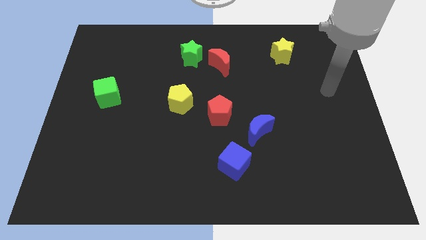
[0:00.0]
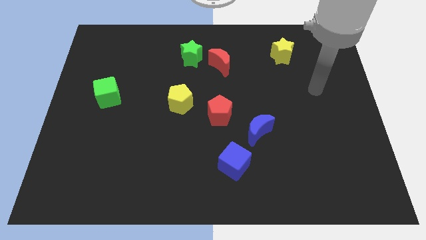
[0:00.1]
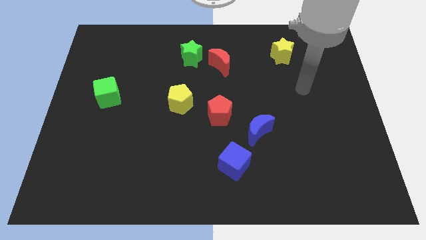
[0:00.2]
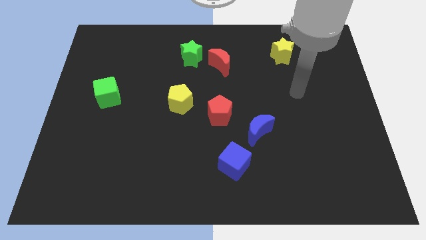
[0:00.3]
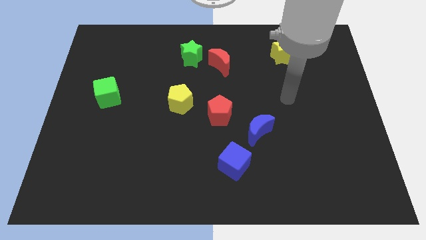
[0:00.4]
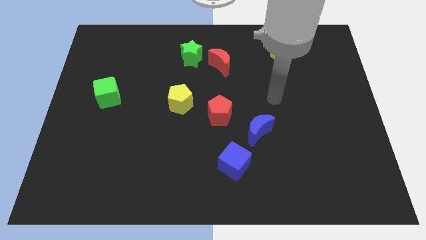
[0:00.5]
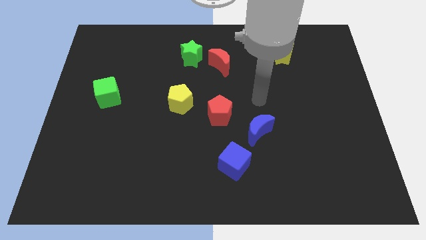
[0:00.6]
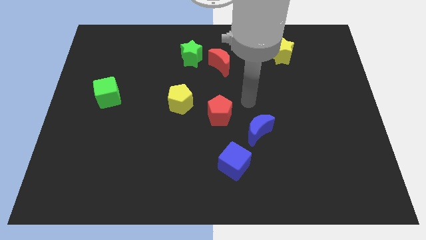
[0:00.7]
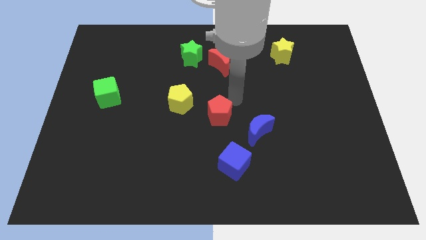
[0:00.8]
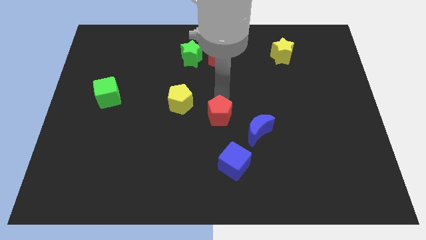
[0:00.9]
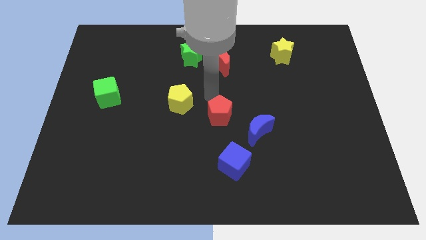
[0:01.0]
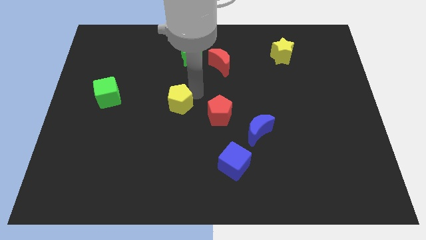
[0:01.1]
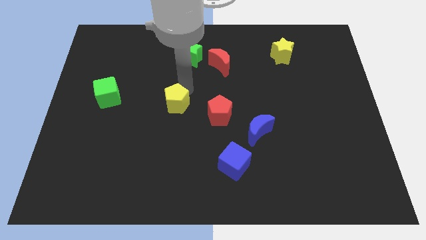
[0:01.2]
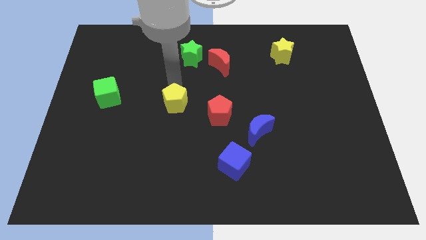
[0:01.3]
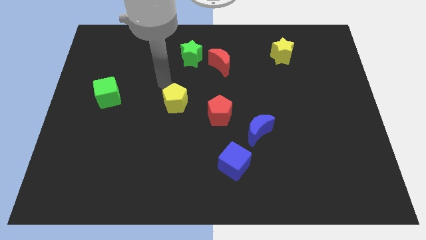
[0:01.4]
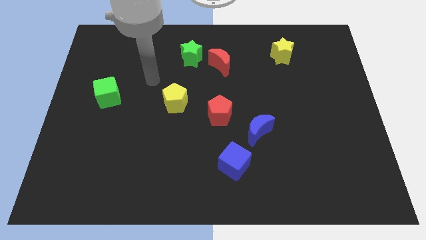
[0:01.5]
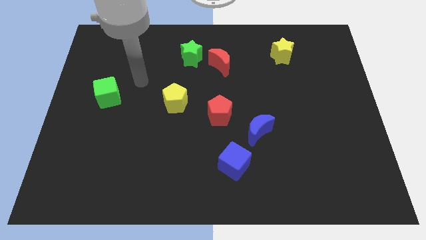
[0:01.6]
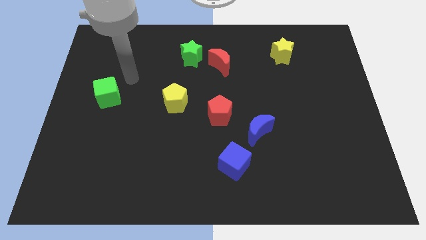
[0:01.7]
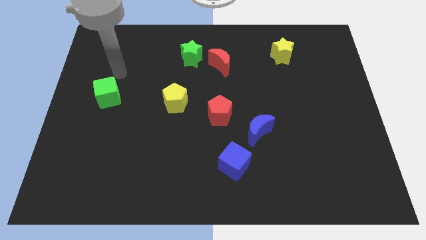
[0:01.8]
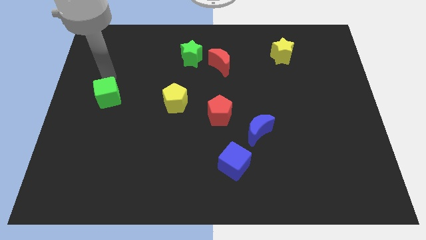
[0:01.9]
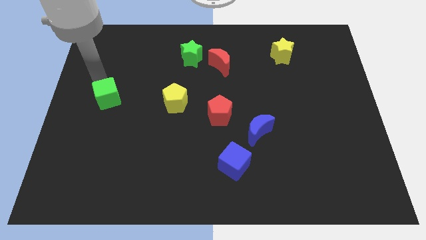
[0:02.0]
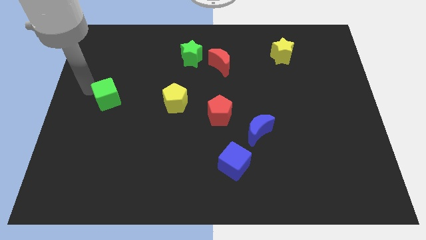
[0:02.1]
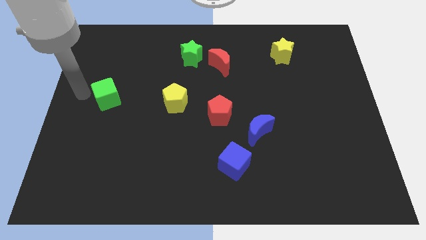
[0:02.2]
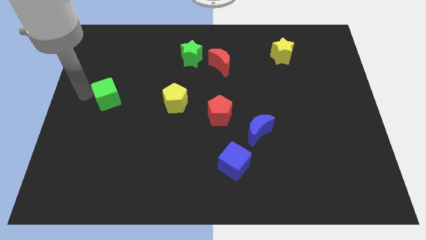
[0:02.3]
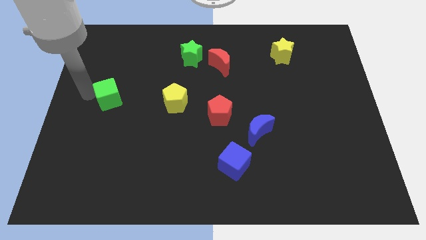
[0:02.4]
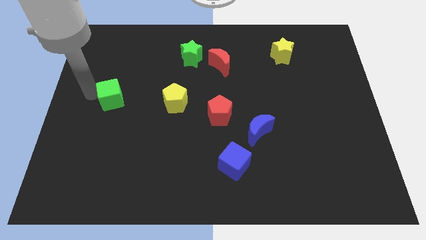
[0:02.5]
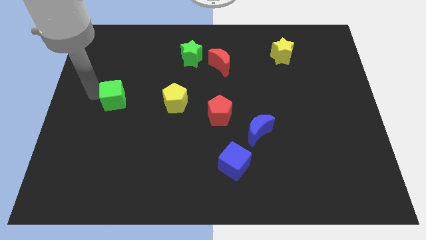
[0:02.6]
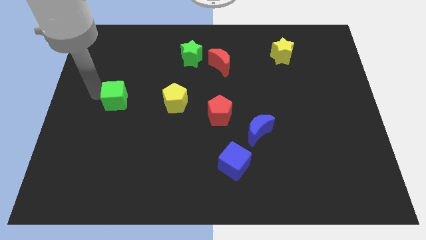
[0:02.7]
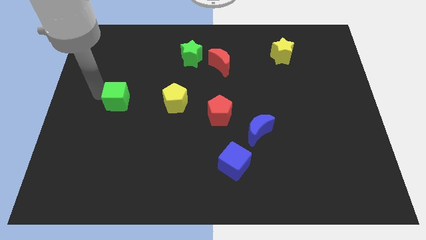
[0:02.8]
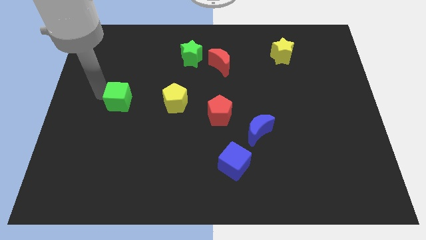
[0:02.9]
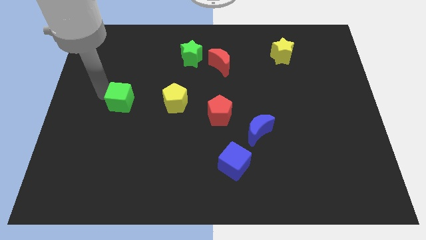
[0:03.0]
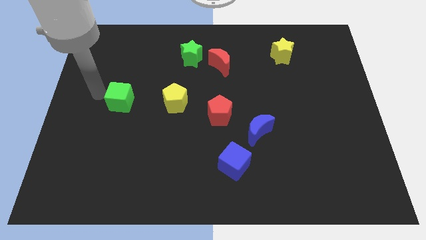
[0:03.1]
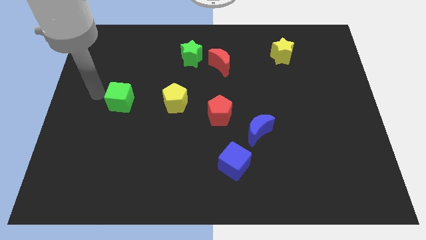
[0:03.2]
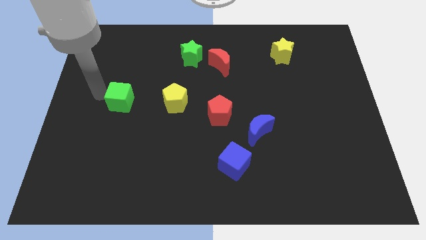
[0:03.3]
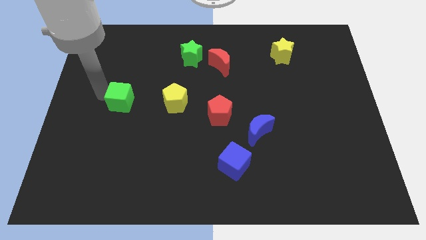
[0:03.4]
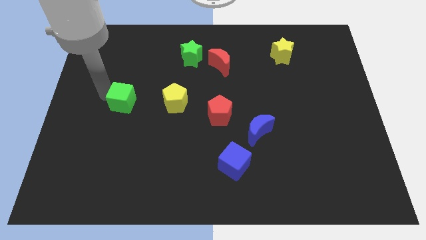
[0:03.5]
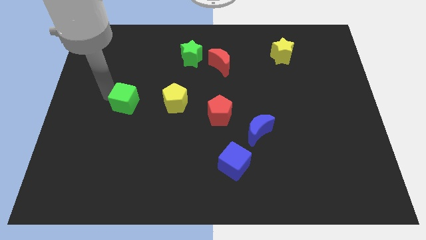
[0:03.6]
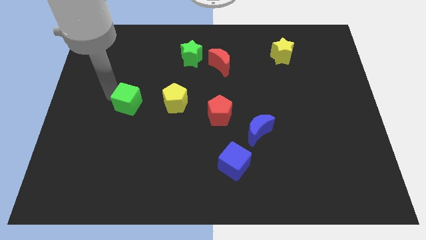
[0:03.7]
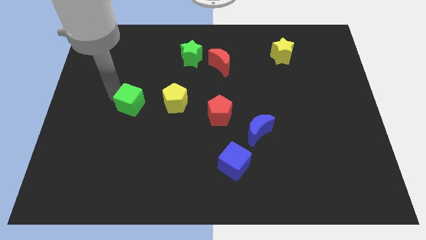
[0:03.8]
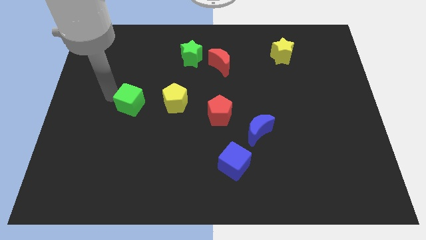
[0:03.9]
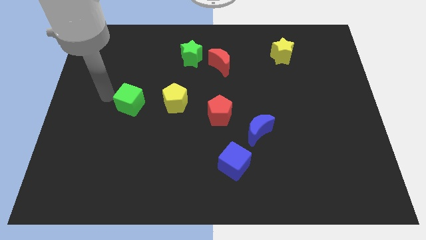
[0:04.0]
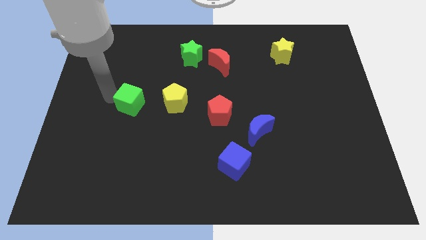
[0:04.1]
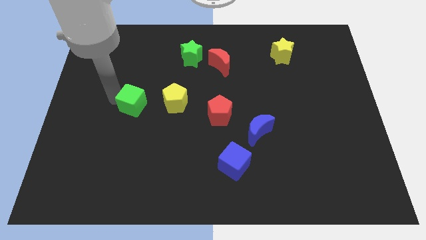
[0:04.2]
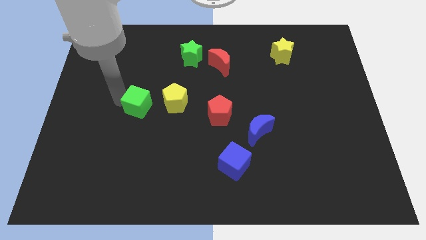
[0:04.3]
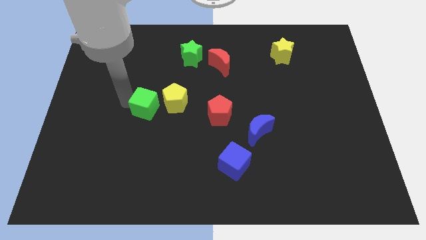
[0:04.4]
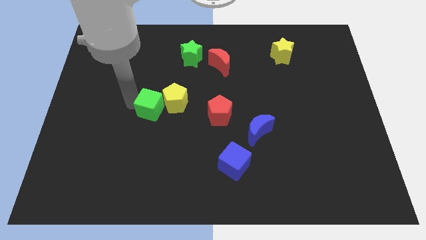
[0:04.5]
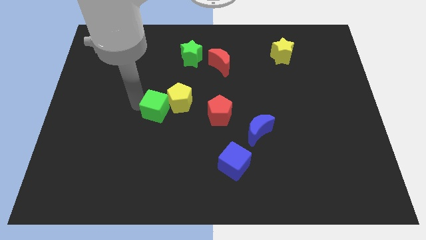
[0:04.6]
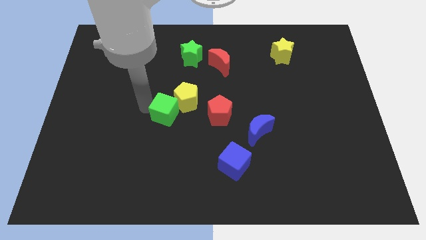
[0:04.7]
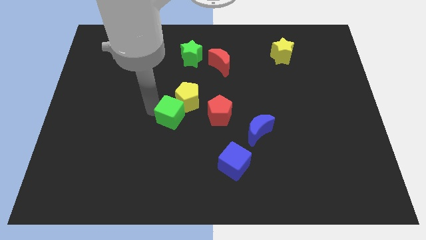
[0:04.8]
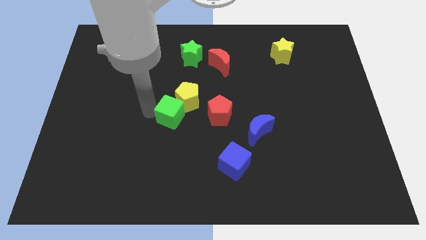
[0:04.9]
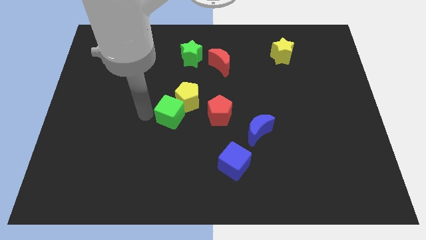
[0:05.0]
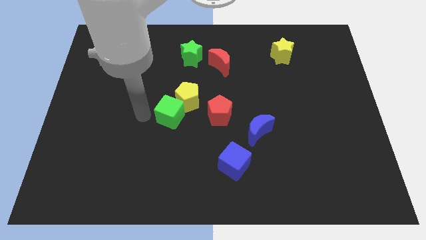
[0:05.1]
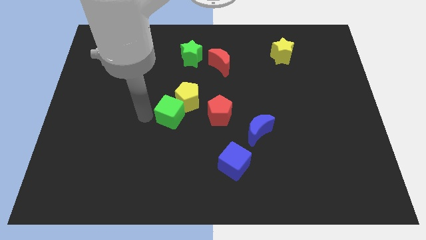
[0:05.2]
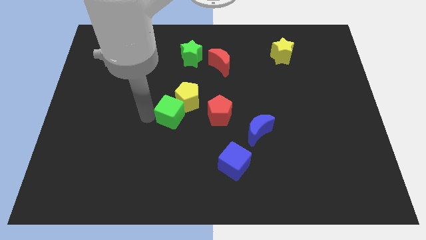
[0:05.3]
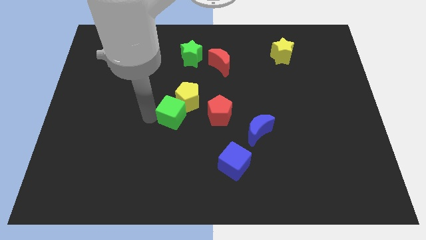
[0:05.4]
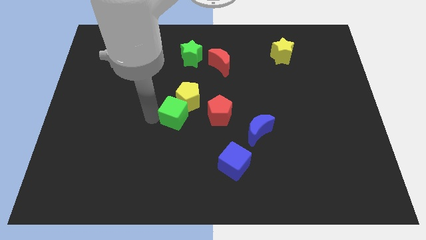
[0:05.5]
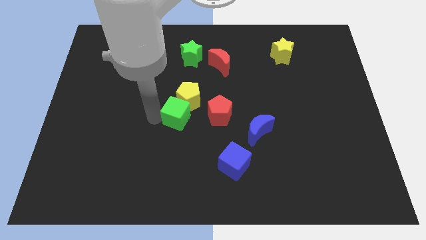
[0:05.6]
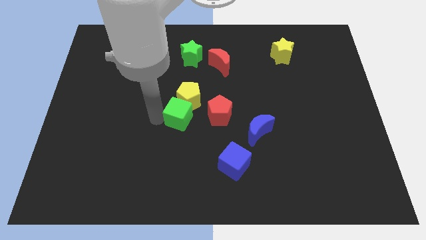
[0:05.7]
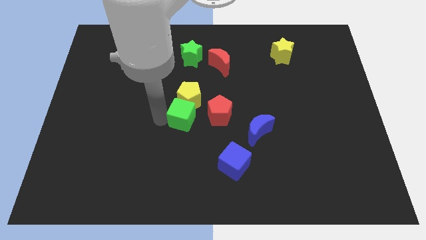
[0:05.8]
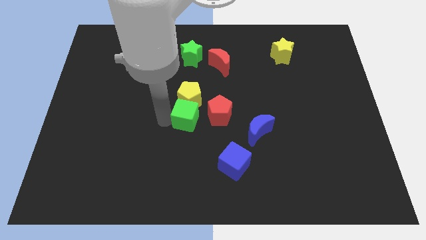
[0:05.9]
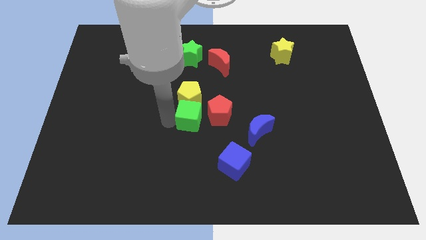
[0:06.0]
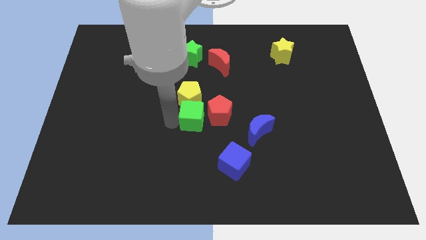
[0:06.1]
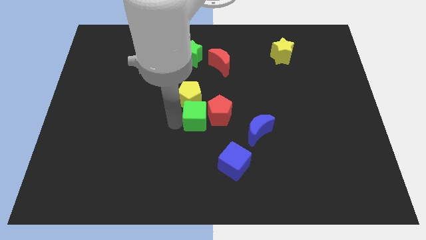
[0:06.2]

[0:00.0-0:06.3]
move the green cube close to the red pentagon

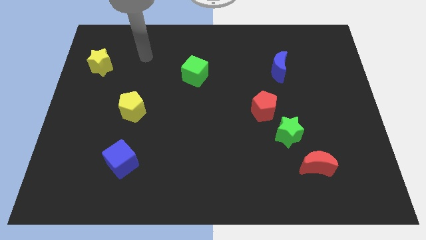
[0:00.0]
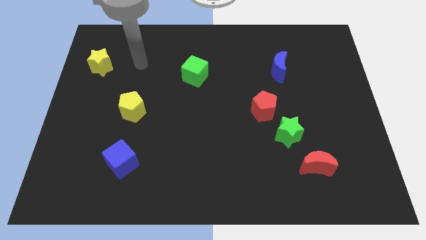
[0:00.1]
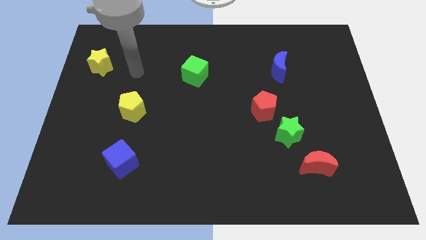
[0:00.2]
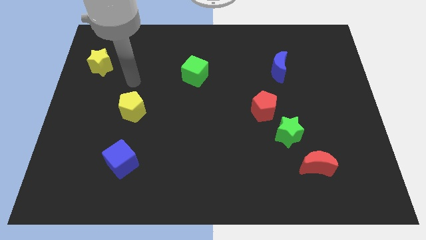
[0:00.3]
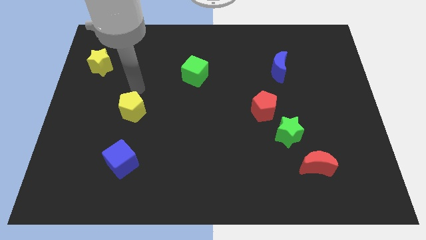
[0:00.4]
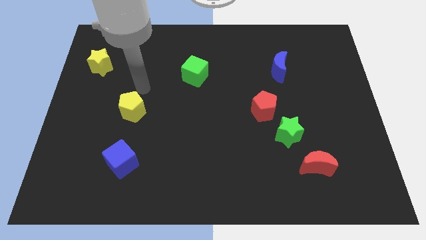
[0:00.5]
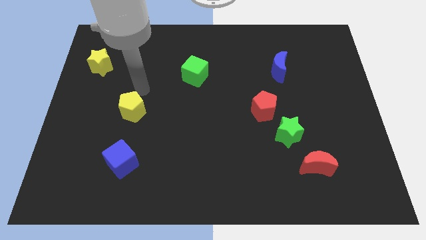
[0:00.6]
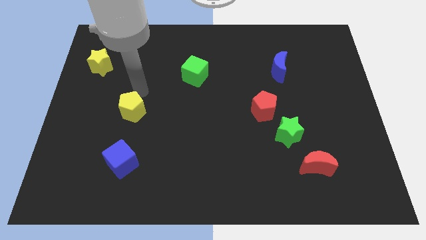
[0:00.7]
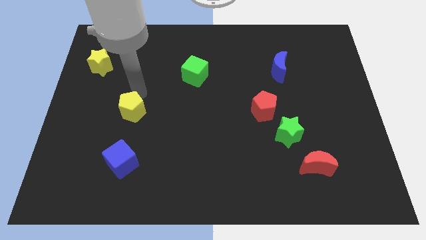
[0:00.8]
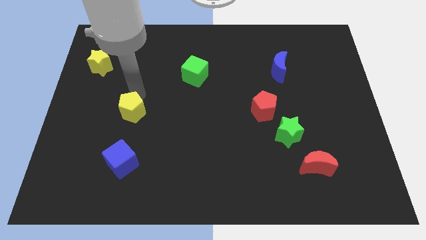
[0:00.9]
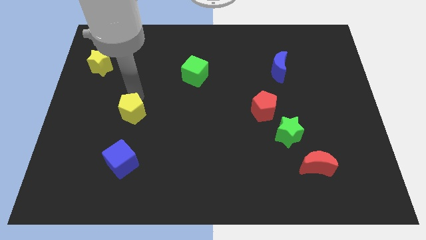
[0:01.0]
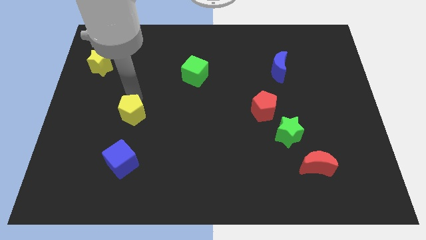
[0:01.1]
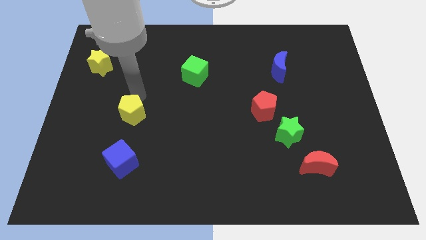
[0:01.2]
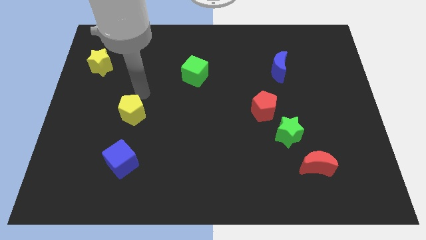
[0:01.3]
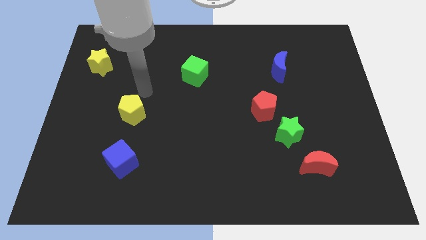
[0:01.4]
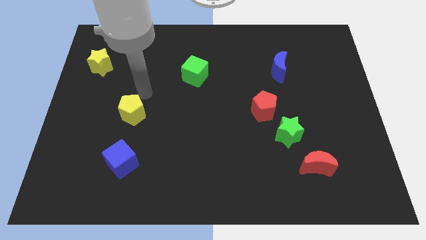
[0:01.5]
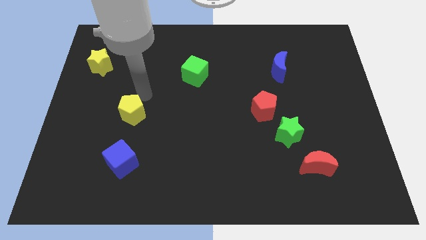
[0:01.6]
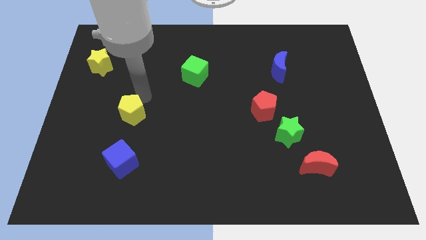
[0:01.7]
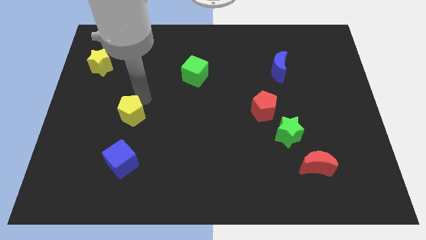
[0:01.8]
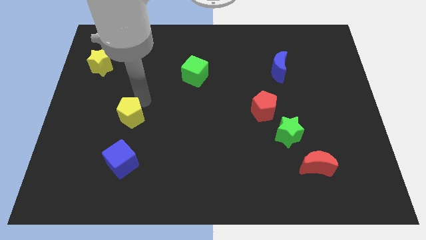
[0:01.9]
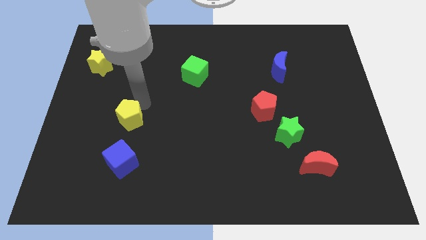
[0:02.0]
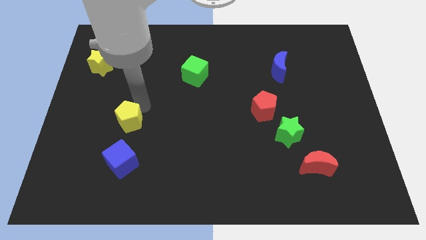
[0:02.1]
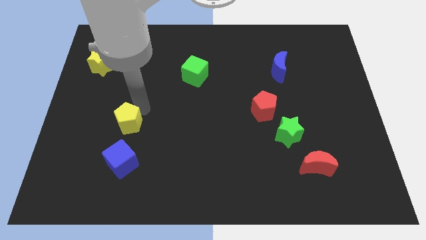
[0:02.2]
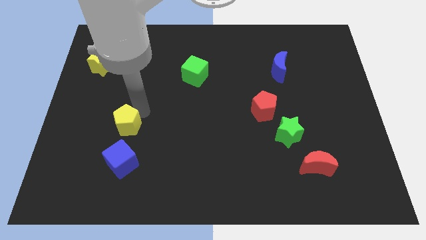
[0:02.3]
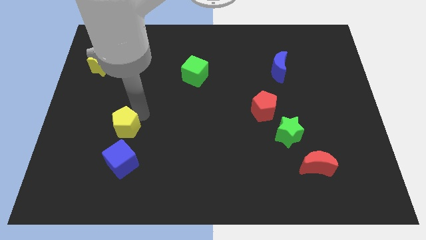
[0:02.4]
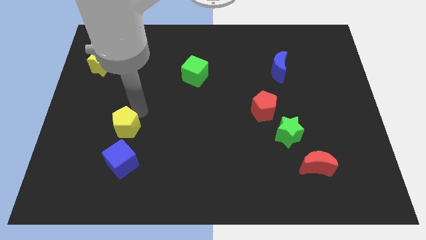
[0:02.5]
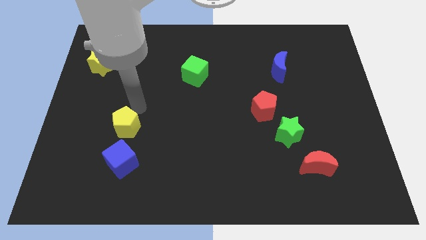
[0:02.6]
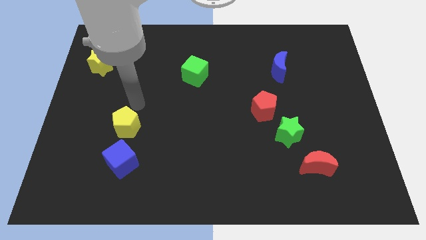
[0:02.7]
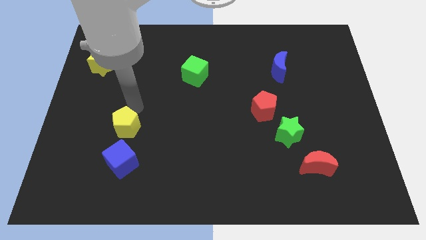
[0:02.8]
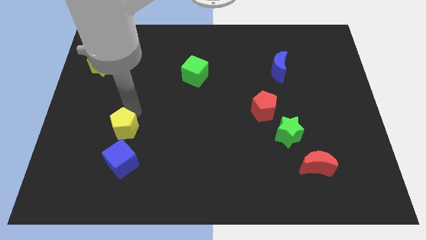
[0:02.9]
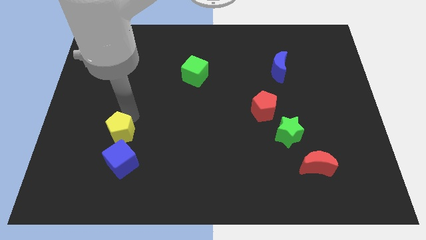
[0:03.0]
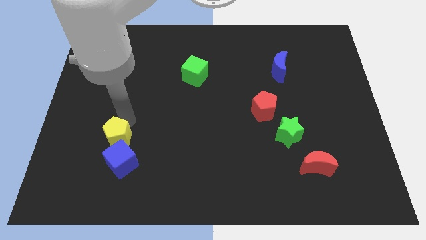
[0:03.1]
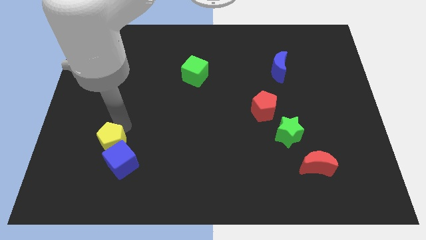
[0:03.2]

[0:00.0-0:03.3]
move the yellow pentagon to the blue cube
